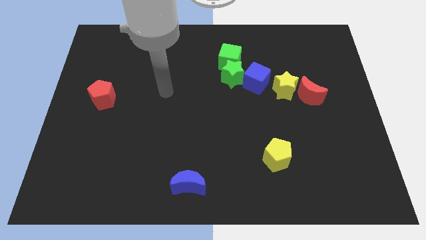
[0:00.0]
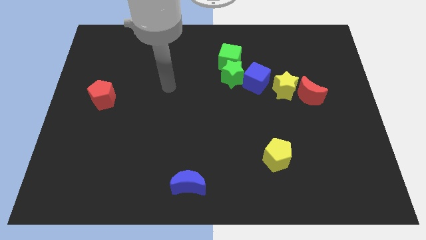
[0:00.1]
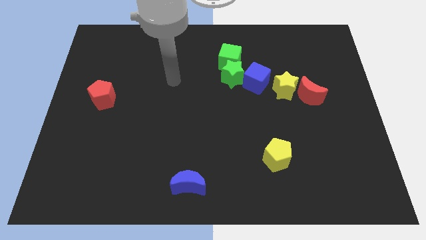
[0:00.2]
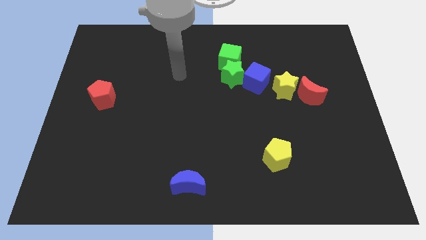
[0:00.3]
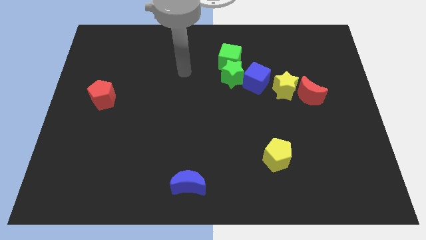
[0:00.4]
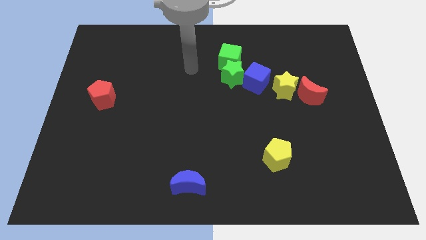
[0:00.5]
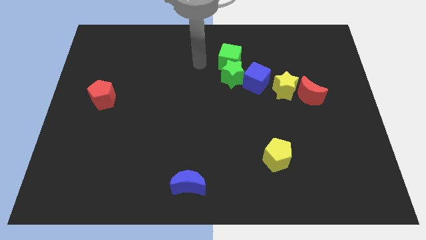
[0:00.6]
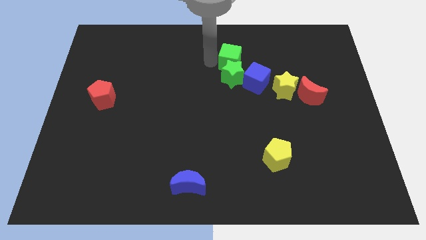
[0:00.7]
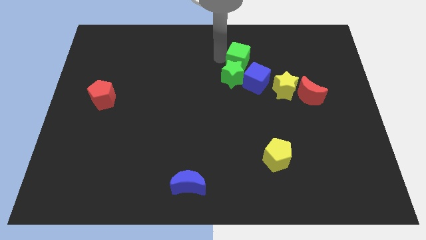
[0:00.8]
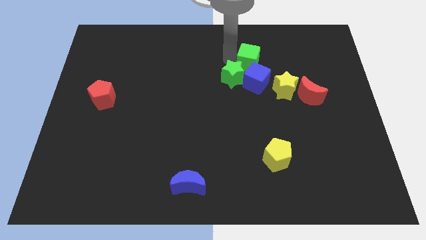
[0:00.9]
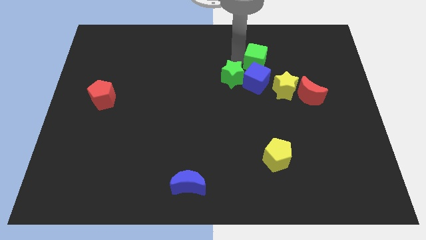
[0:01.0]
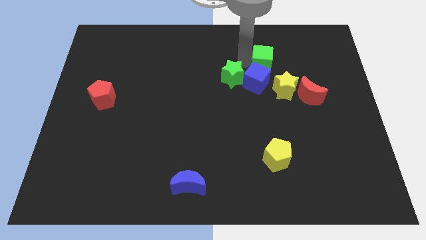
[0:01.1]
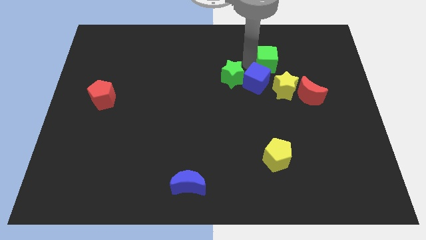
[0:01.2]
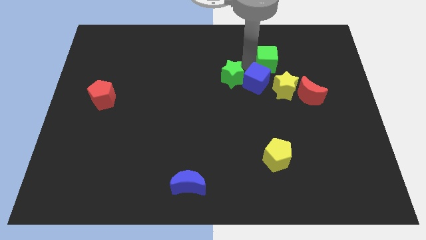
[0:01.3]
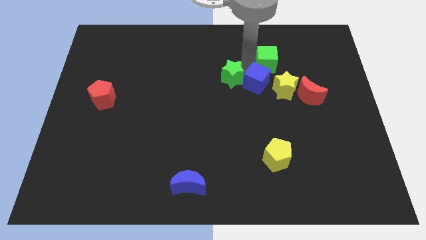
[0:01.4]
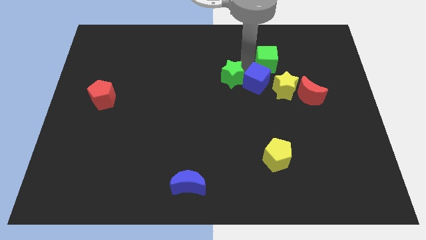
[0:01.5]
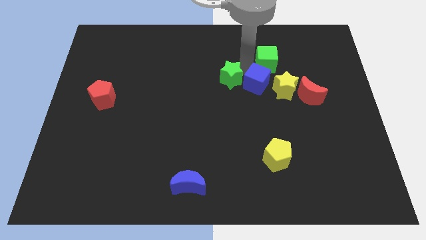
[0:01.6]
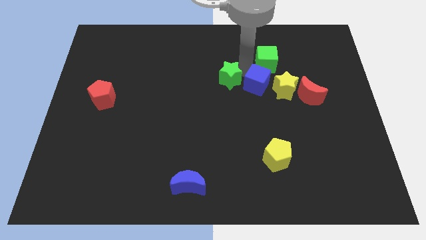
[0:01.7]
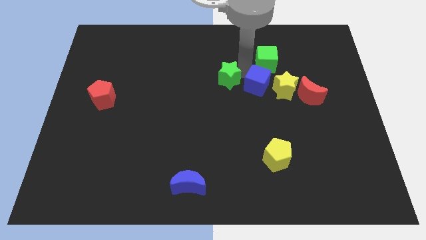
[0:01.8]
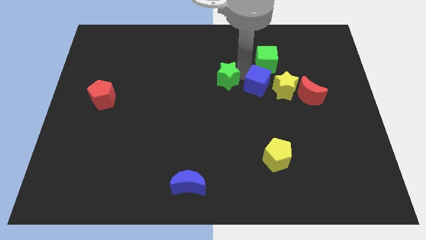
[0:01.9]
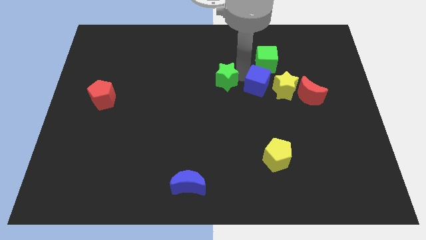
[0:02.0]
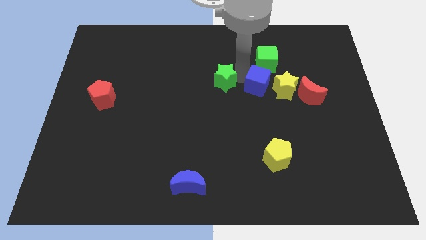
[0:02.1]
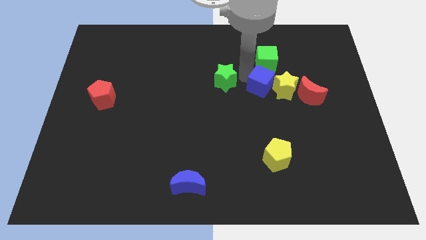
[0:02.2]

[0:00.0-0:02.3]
pull the green star apart from the blue cube and green cube

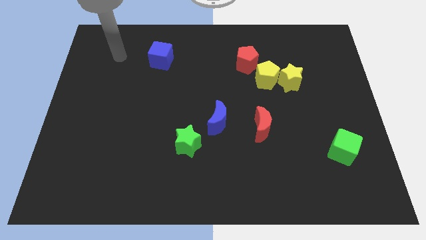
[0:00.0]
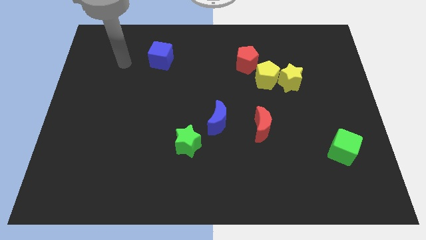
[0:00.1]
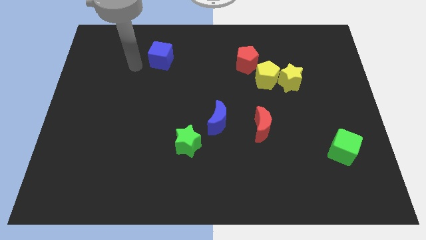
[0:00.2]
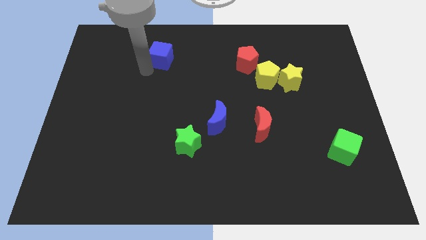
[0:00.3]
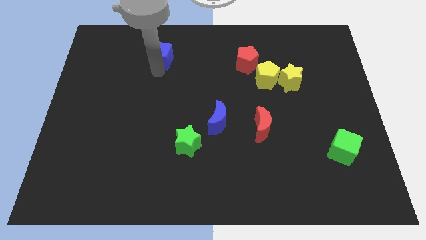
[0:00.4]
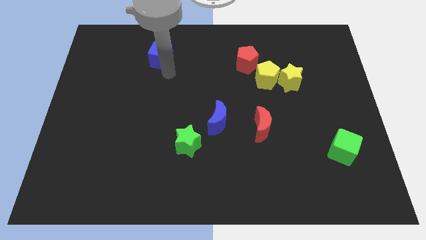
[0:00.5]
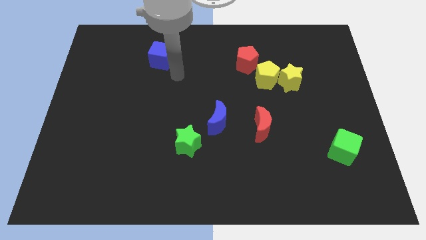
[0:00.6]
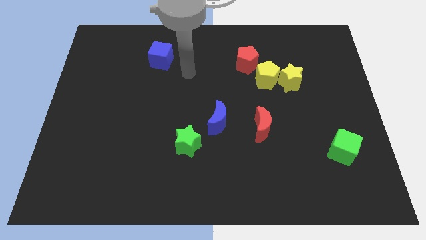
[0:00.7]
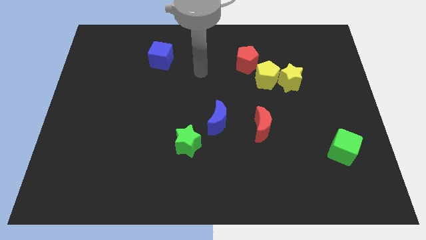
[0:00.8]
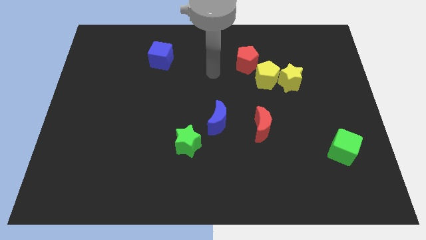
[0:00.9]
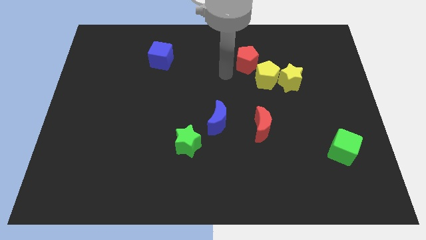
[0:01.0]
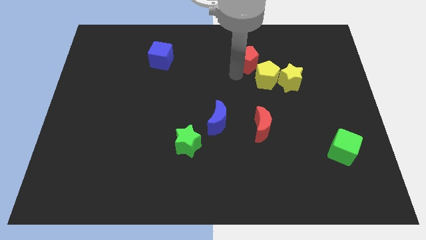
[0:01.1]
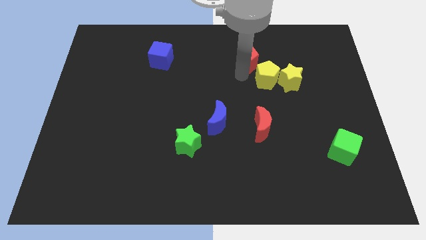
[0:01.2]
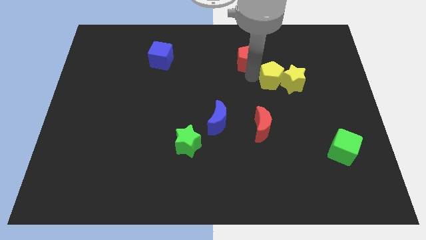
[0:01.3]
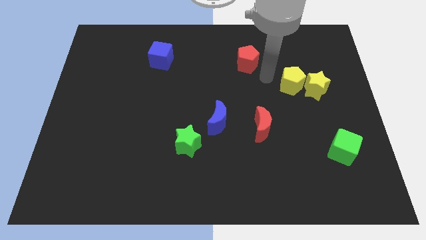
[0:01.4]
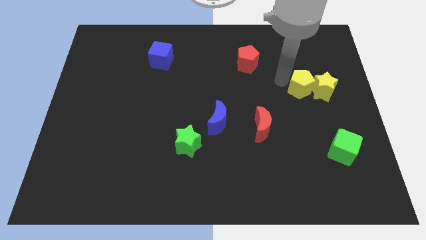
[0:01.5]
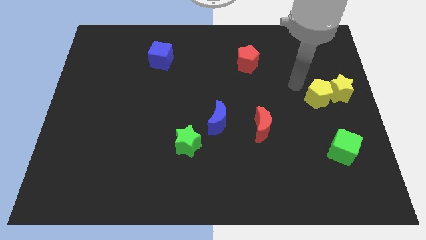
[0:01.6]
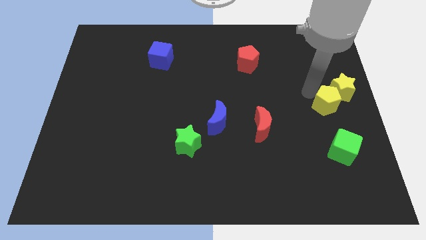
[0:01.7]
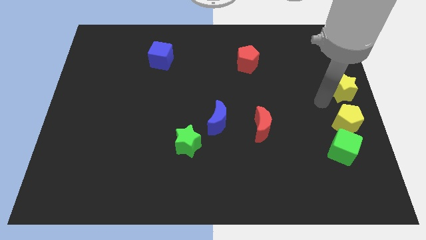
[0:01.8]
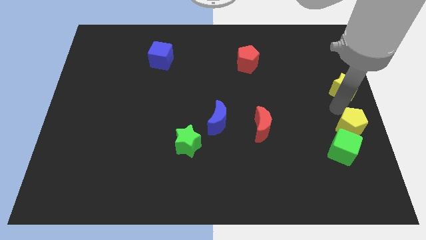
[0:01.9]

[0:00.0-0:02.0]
pull the yellow star apart from the yellow pentagon

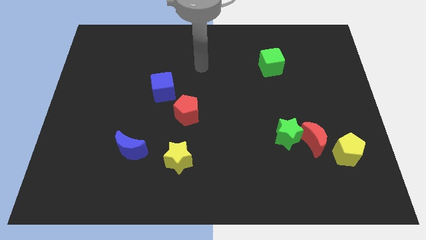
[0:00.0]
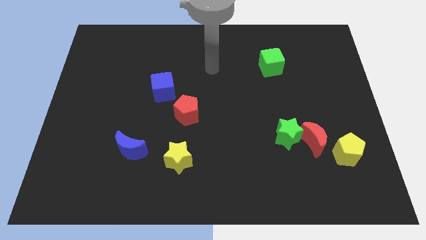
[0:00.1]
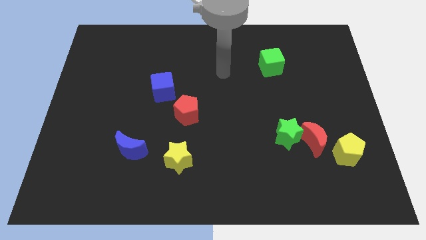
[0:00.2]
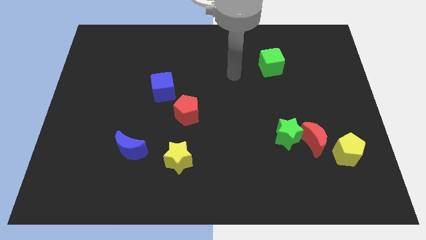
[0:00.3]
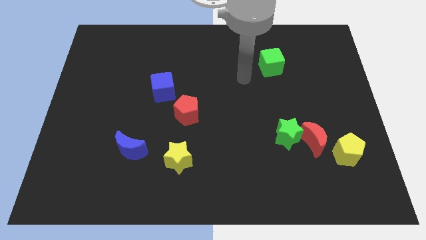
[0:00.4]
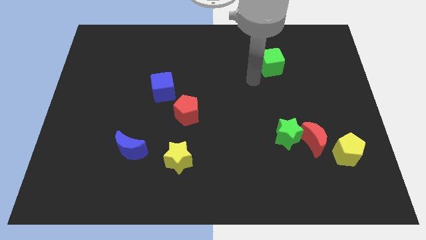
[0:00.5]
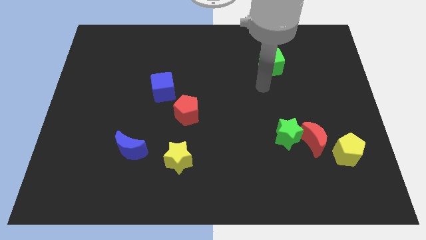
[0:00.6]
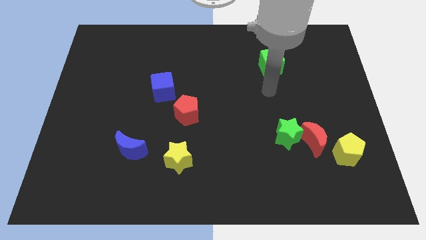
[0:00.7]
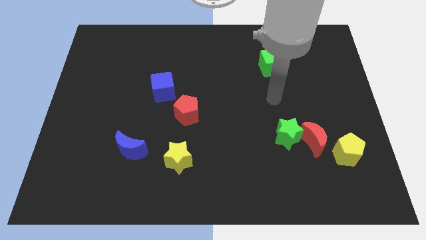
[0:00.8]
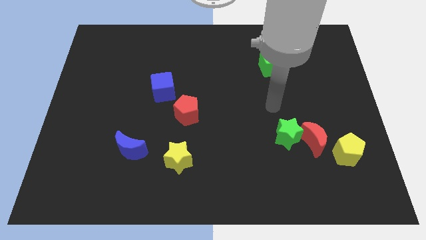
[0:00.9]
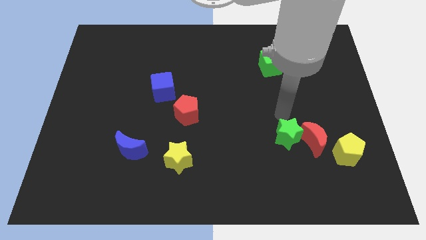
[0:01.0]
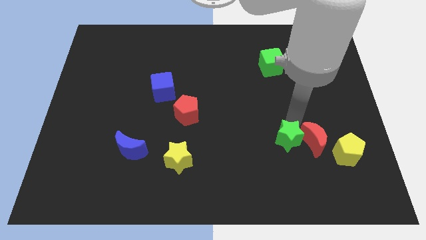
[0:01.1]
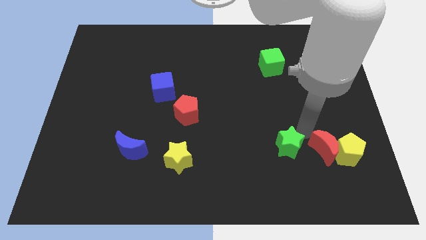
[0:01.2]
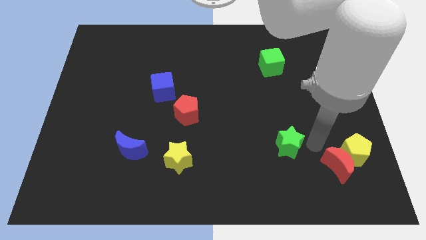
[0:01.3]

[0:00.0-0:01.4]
move the green star away from the red moon

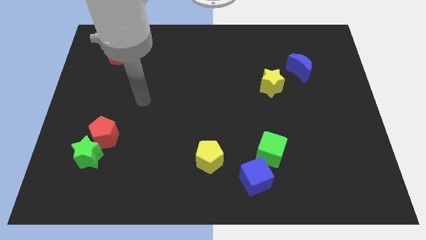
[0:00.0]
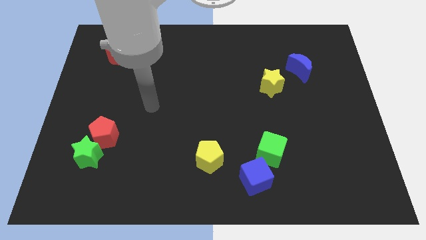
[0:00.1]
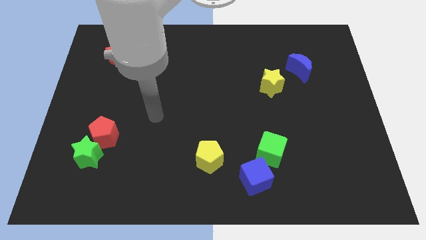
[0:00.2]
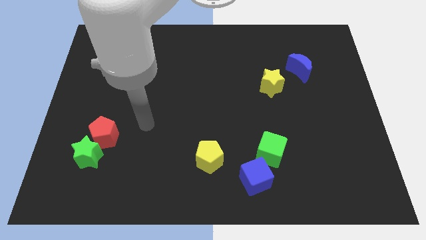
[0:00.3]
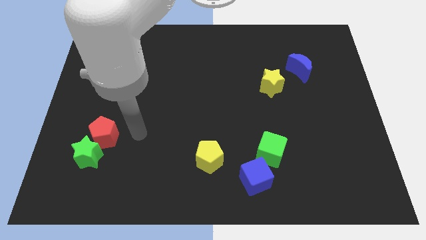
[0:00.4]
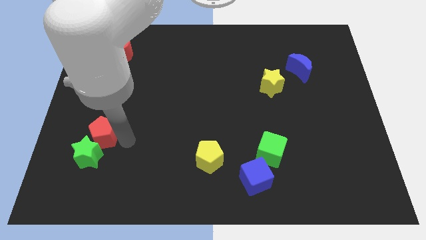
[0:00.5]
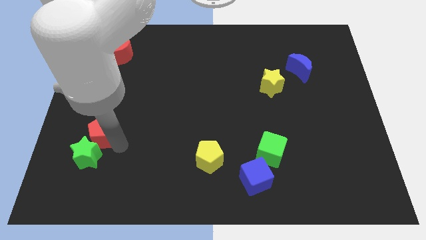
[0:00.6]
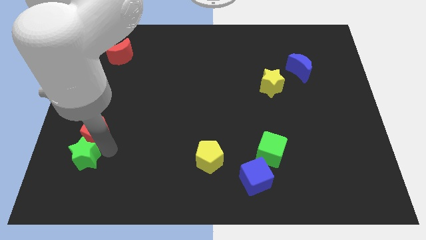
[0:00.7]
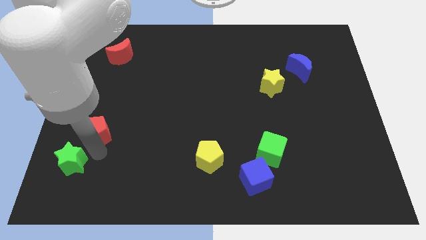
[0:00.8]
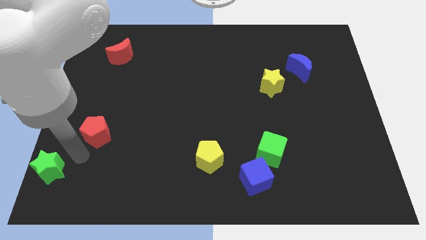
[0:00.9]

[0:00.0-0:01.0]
move the red pentagon away from the green star

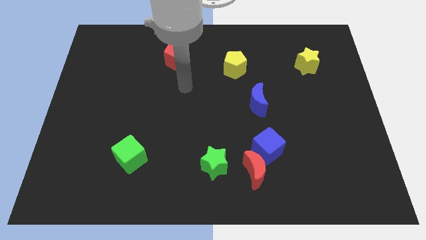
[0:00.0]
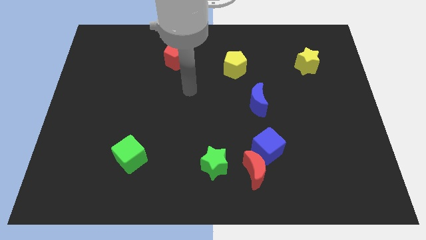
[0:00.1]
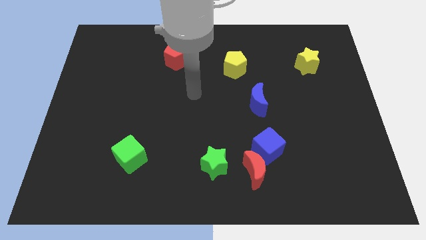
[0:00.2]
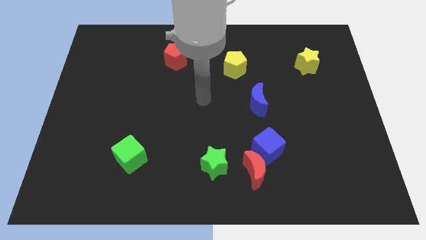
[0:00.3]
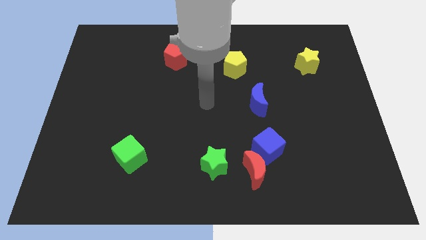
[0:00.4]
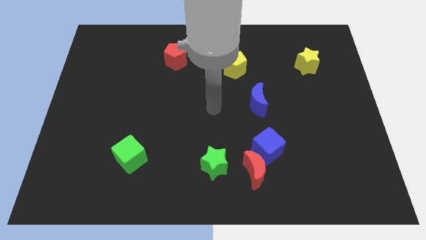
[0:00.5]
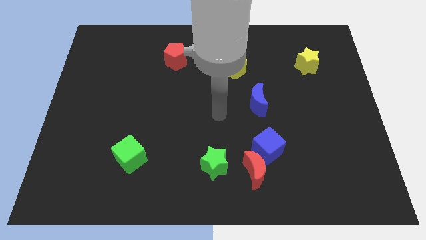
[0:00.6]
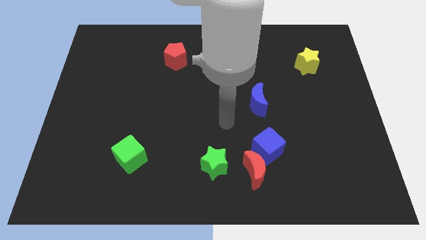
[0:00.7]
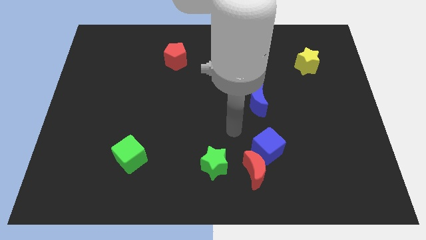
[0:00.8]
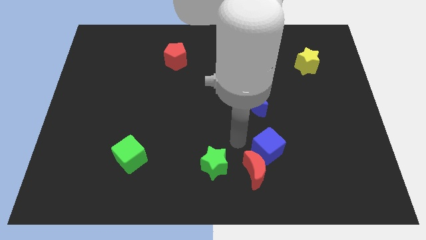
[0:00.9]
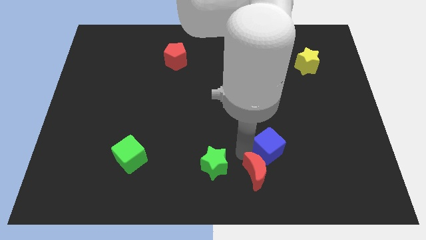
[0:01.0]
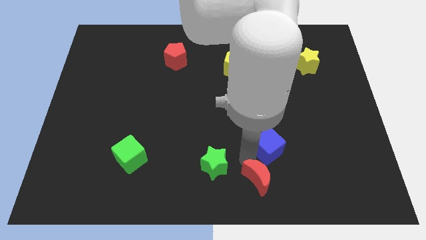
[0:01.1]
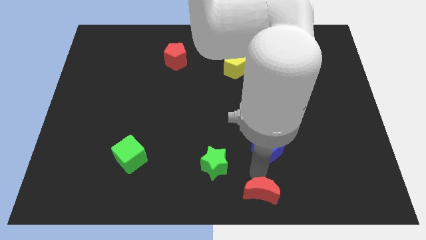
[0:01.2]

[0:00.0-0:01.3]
pull the blue cube apart from the red moon

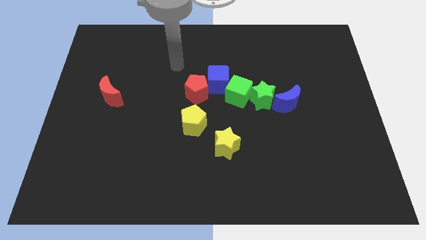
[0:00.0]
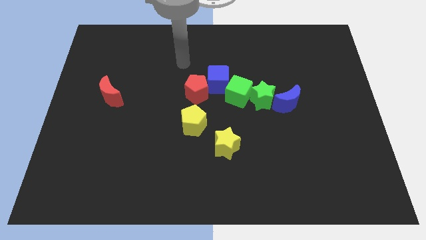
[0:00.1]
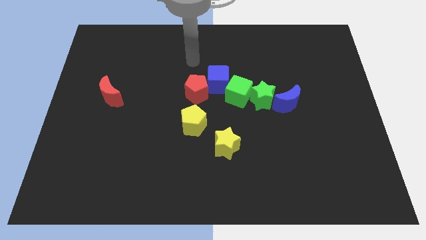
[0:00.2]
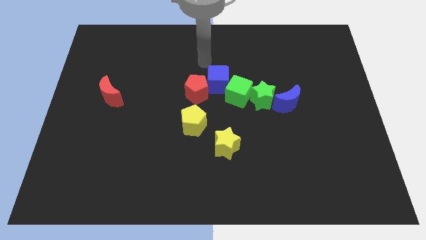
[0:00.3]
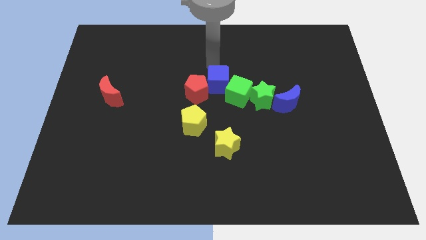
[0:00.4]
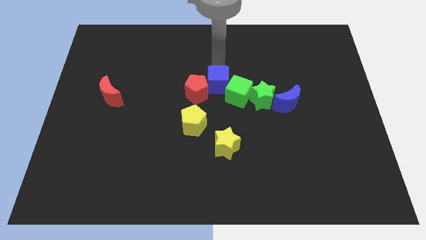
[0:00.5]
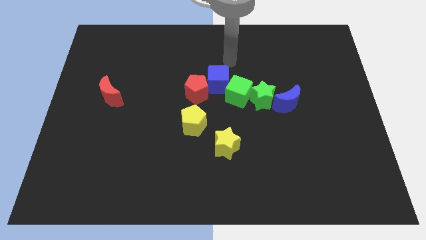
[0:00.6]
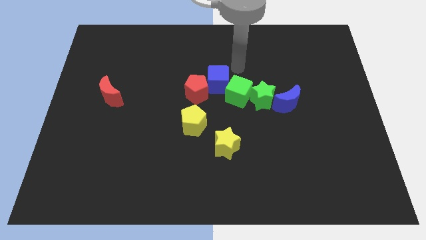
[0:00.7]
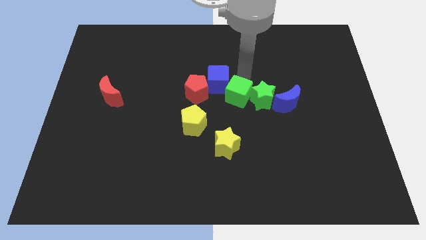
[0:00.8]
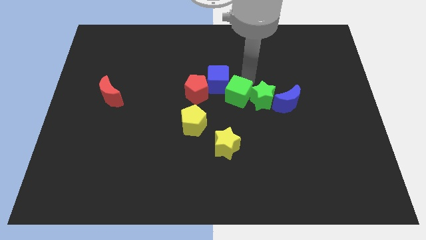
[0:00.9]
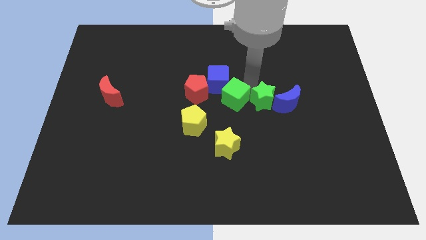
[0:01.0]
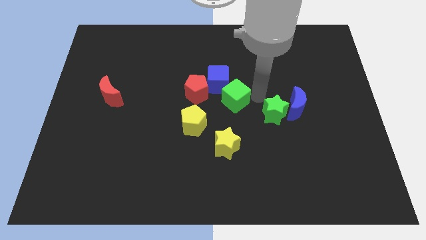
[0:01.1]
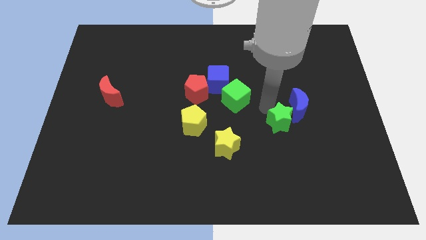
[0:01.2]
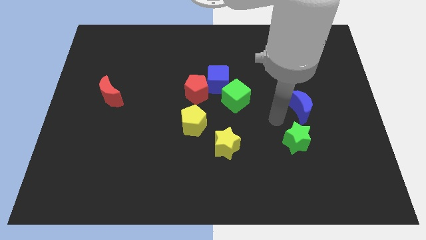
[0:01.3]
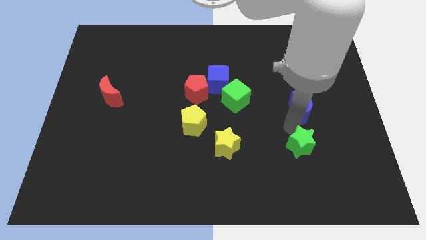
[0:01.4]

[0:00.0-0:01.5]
pull the blue moon apart from the green star

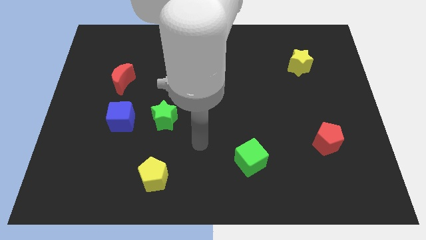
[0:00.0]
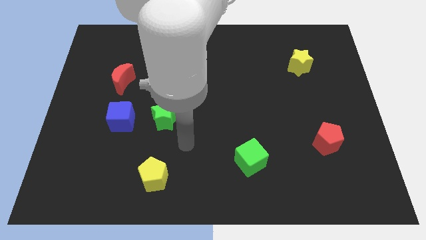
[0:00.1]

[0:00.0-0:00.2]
separate the blue cube from the green star
